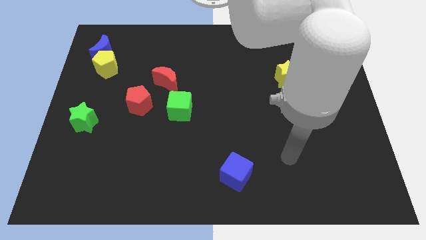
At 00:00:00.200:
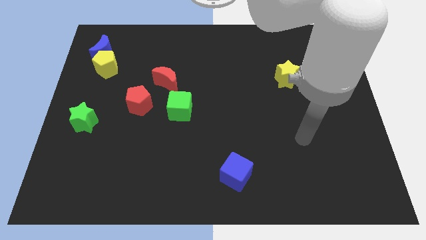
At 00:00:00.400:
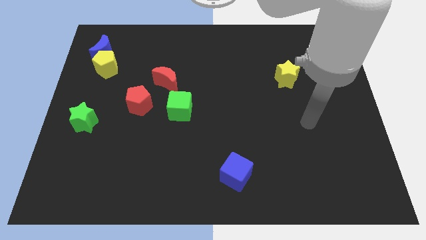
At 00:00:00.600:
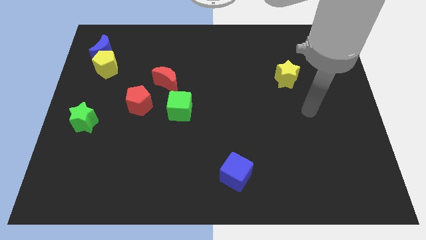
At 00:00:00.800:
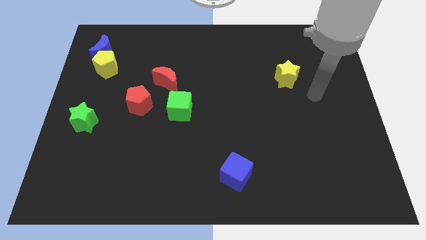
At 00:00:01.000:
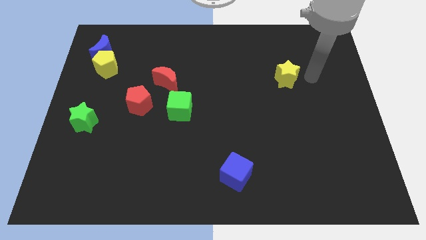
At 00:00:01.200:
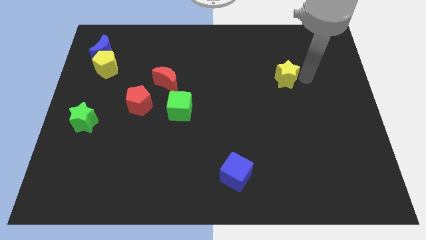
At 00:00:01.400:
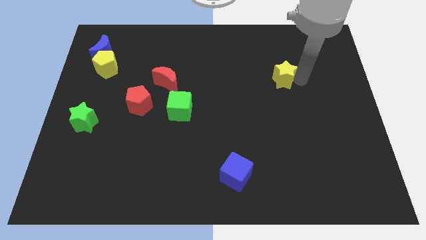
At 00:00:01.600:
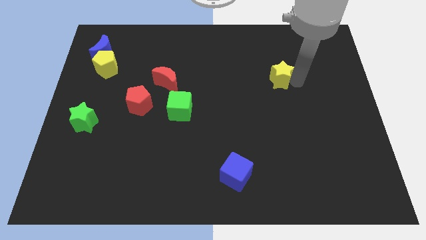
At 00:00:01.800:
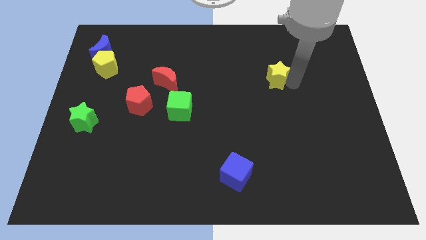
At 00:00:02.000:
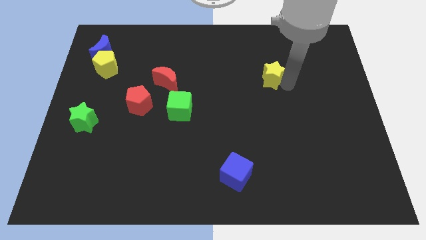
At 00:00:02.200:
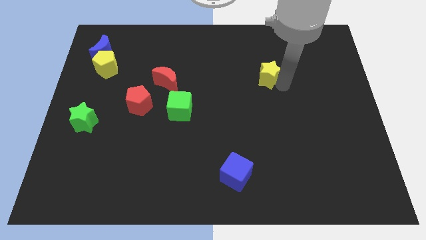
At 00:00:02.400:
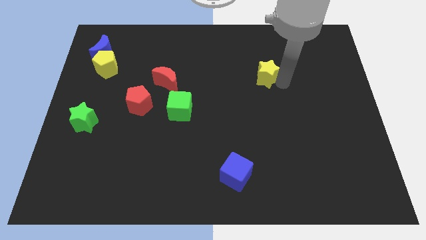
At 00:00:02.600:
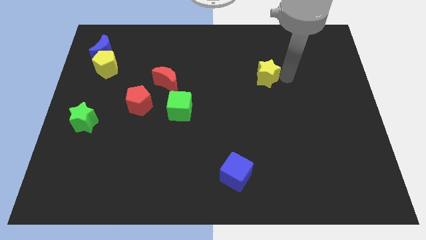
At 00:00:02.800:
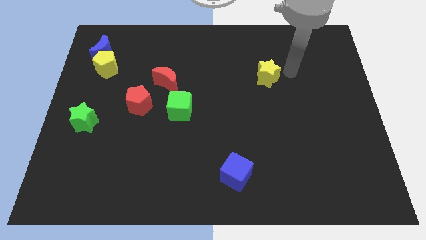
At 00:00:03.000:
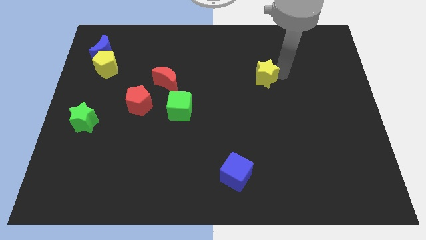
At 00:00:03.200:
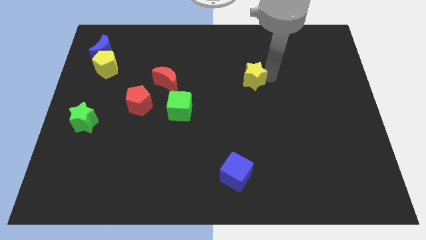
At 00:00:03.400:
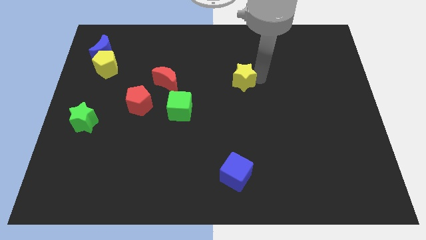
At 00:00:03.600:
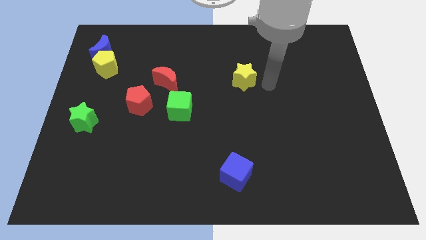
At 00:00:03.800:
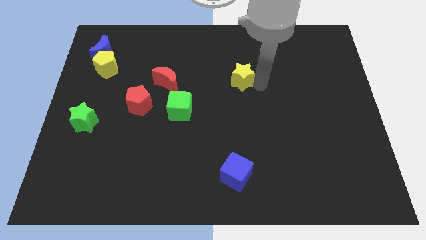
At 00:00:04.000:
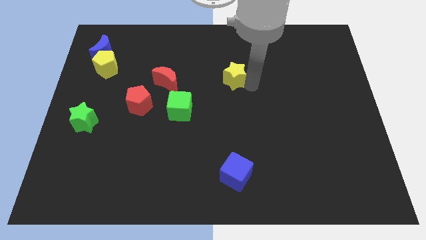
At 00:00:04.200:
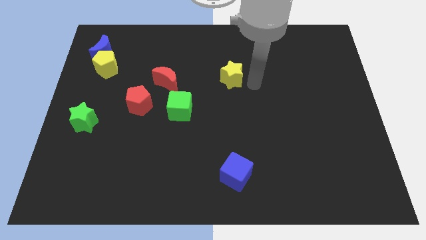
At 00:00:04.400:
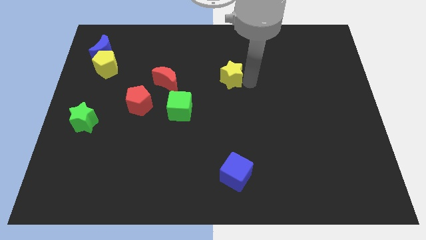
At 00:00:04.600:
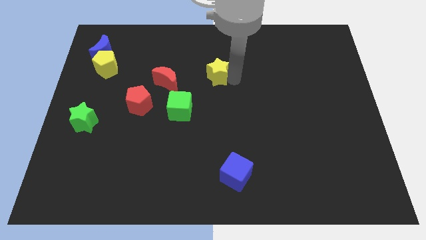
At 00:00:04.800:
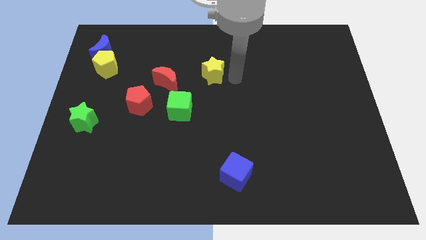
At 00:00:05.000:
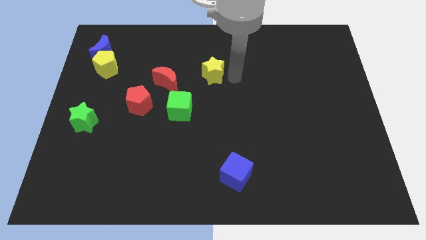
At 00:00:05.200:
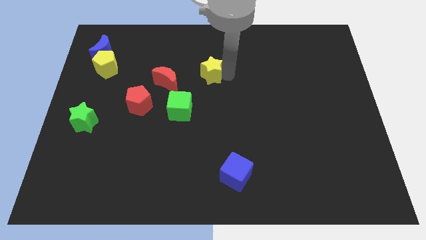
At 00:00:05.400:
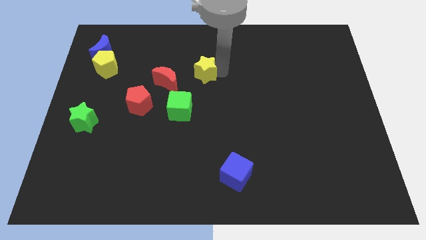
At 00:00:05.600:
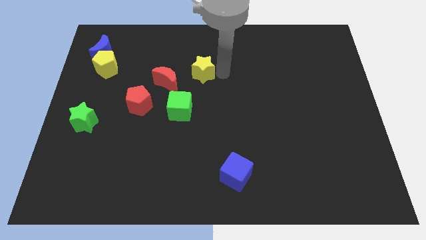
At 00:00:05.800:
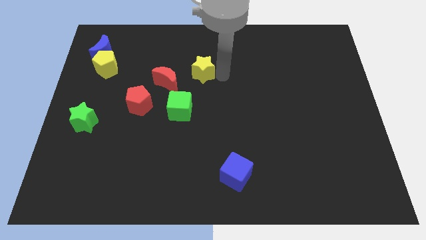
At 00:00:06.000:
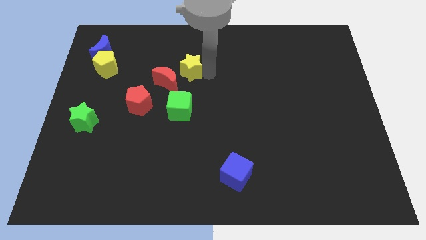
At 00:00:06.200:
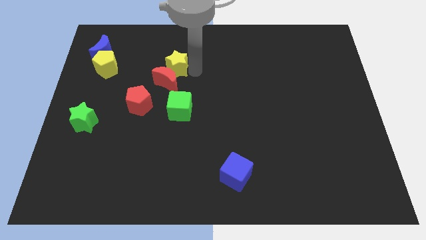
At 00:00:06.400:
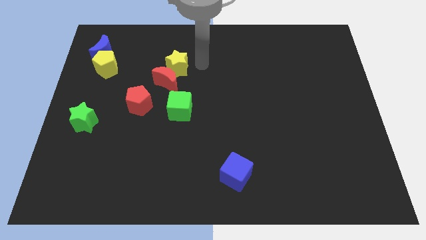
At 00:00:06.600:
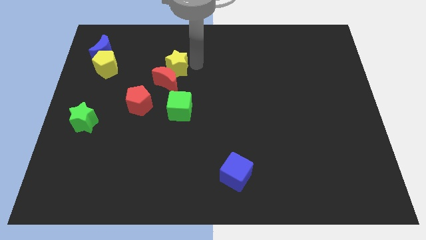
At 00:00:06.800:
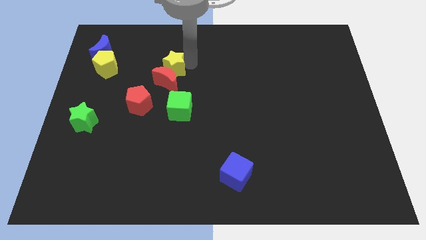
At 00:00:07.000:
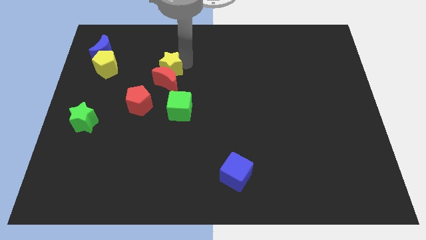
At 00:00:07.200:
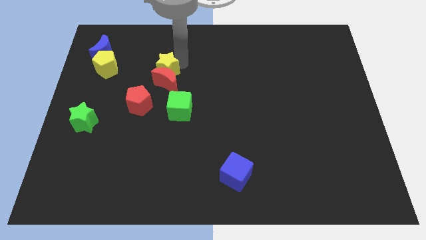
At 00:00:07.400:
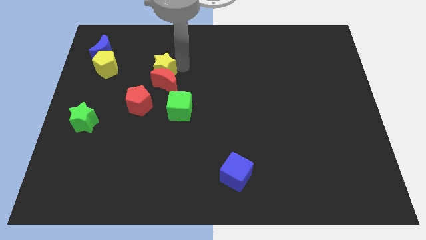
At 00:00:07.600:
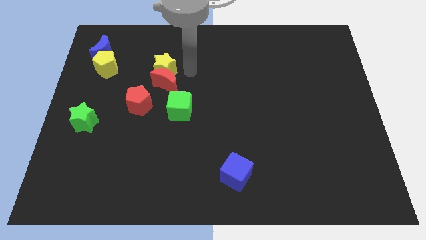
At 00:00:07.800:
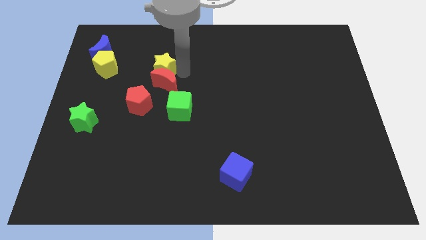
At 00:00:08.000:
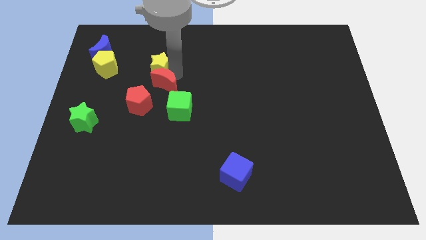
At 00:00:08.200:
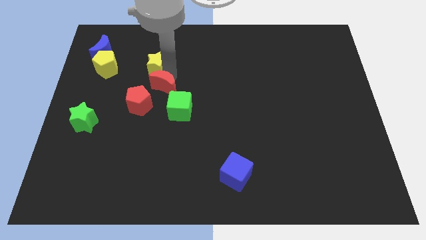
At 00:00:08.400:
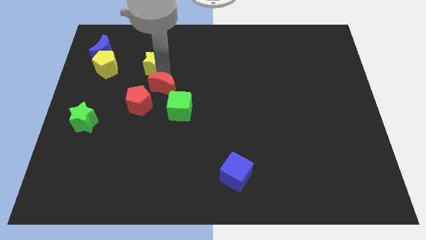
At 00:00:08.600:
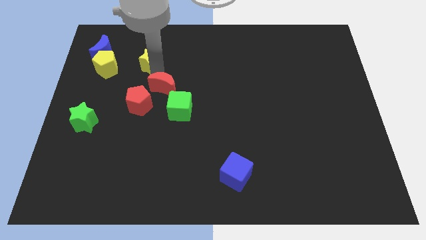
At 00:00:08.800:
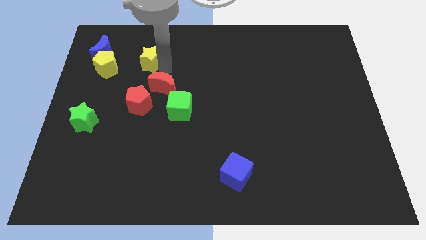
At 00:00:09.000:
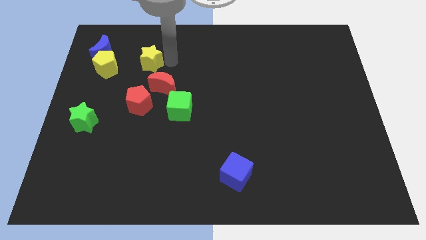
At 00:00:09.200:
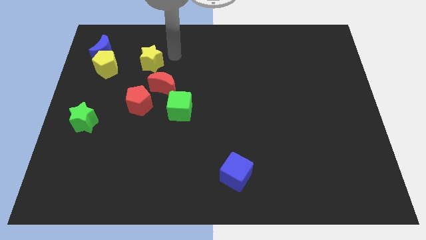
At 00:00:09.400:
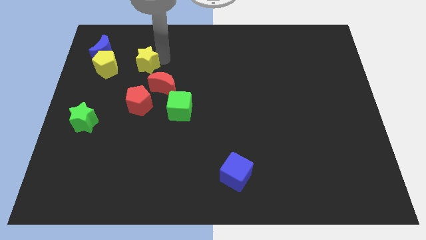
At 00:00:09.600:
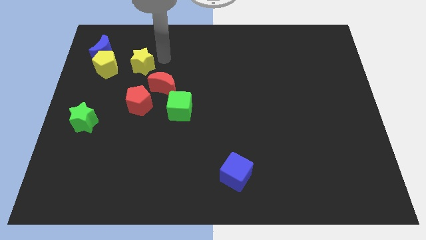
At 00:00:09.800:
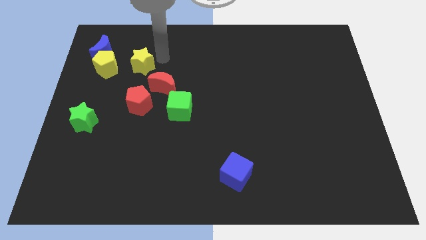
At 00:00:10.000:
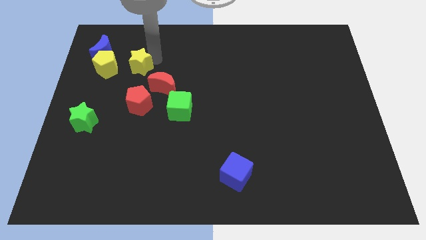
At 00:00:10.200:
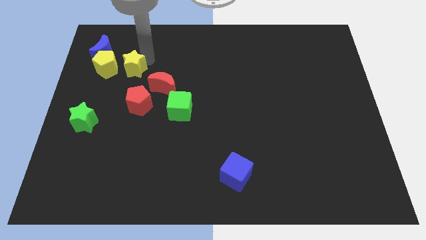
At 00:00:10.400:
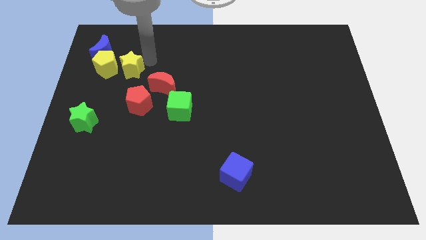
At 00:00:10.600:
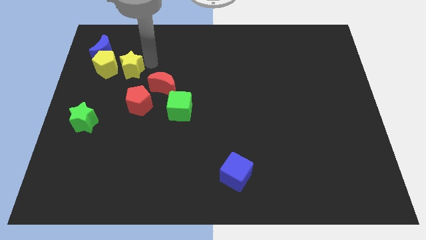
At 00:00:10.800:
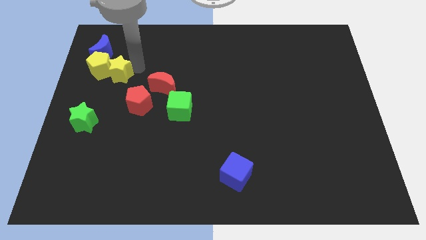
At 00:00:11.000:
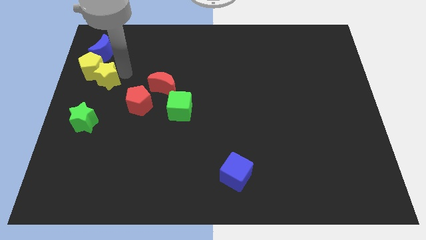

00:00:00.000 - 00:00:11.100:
put the yellow star to the left side

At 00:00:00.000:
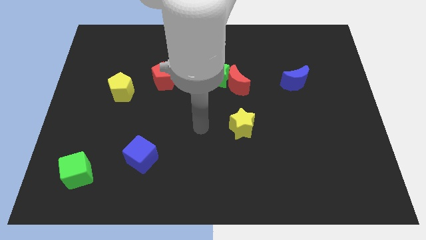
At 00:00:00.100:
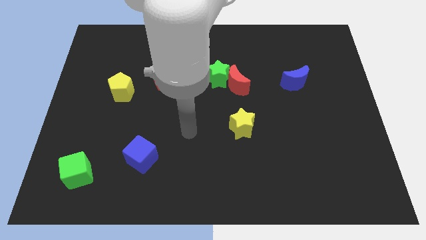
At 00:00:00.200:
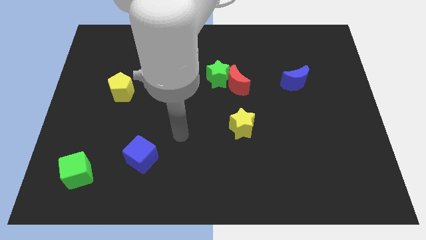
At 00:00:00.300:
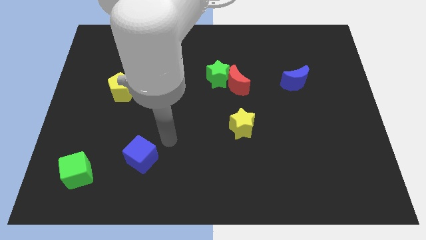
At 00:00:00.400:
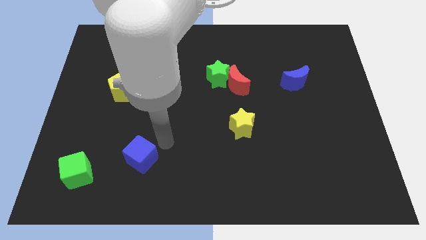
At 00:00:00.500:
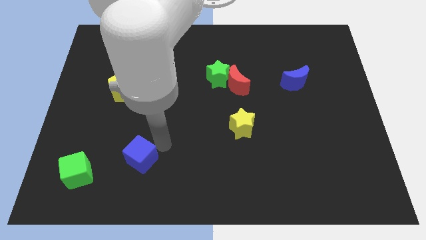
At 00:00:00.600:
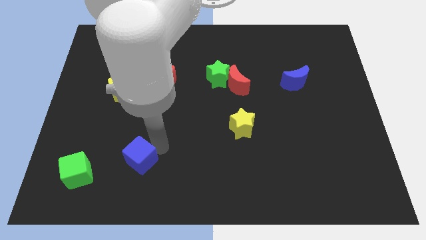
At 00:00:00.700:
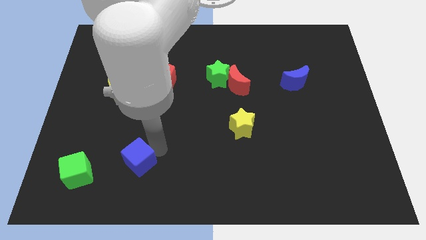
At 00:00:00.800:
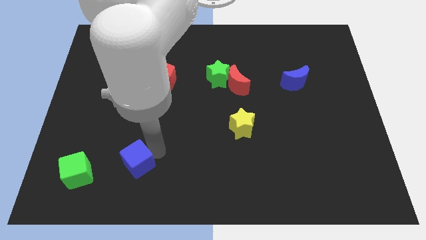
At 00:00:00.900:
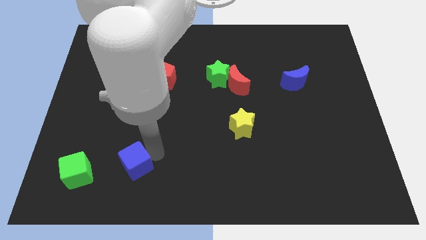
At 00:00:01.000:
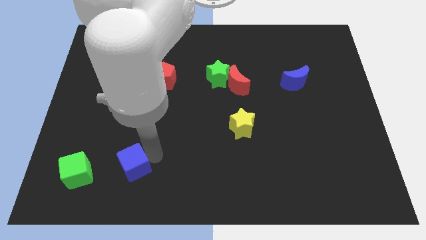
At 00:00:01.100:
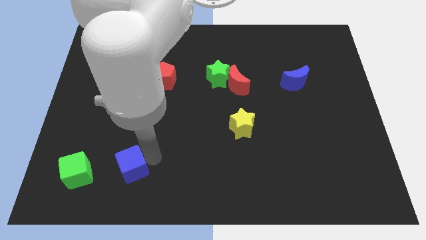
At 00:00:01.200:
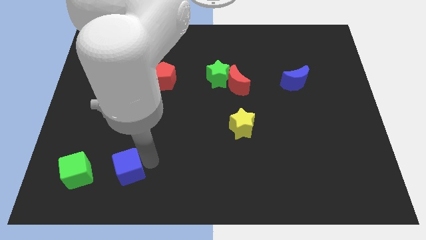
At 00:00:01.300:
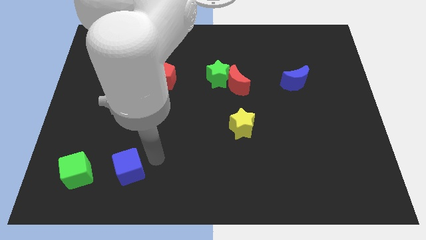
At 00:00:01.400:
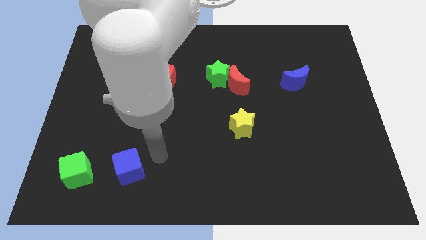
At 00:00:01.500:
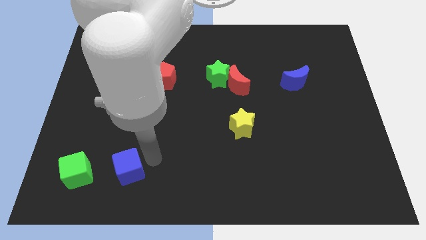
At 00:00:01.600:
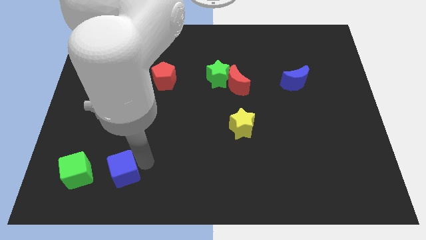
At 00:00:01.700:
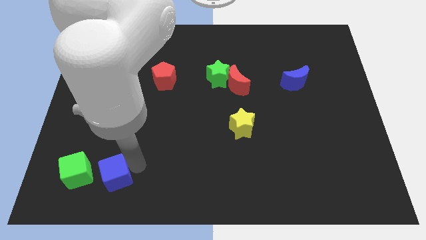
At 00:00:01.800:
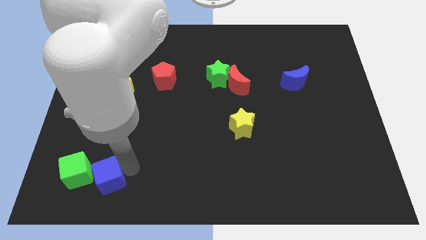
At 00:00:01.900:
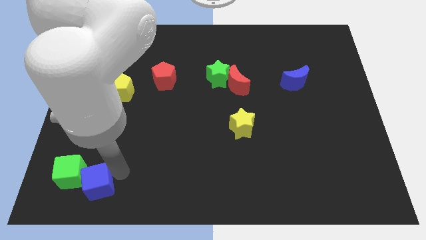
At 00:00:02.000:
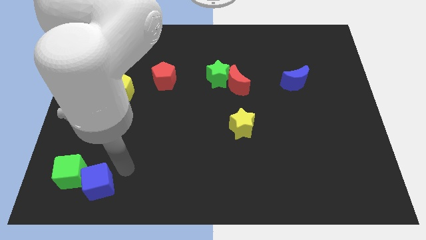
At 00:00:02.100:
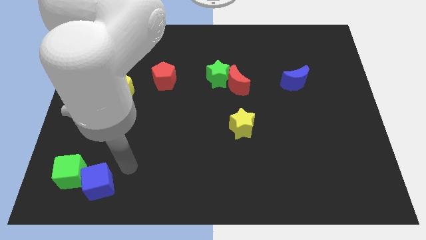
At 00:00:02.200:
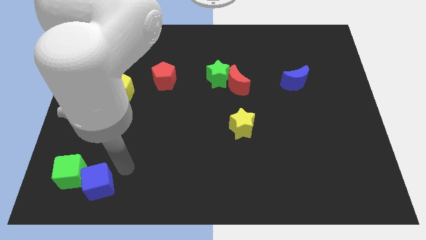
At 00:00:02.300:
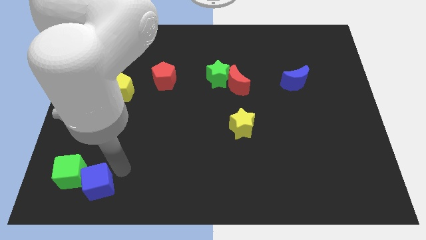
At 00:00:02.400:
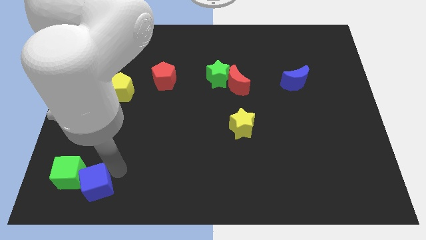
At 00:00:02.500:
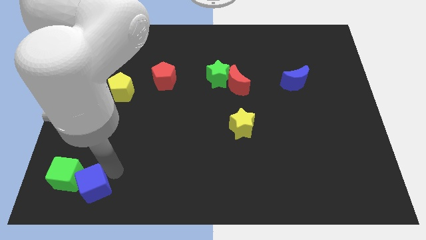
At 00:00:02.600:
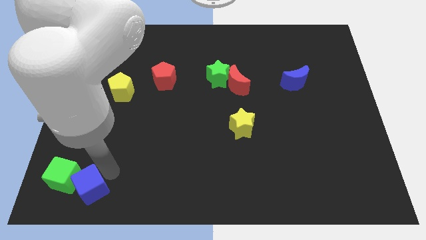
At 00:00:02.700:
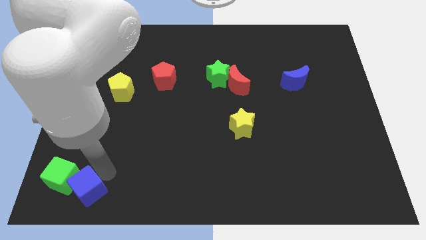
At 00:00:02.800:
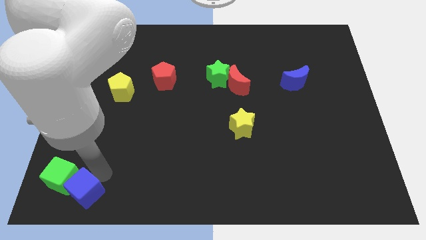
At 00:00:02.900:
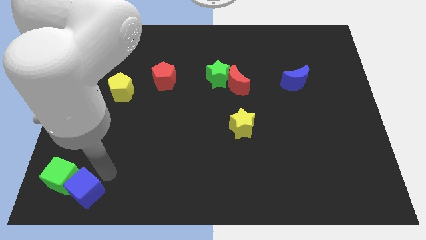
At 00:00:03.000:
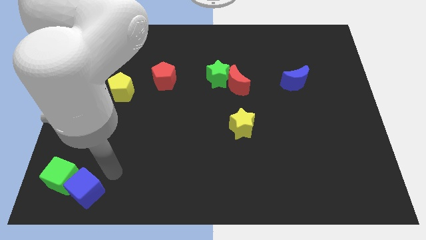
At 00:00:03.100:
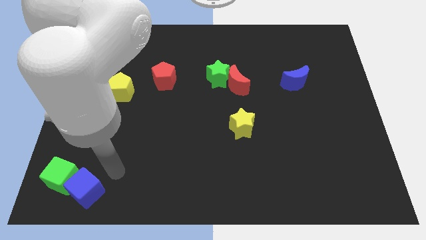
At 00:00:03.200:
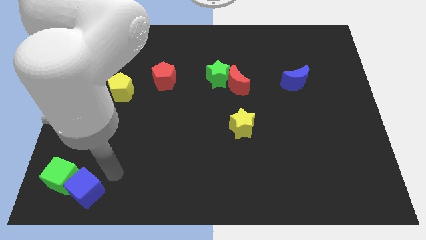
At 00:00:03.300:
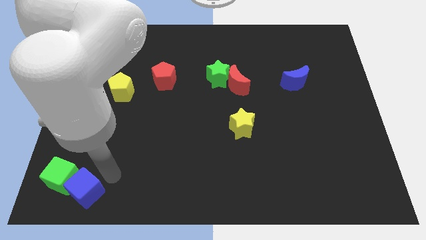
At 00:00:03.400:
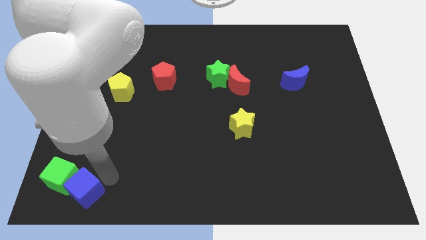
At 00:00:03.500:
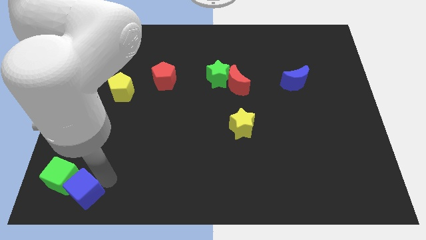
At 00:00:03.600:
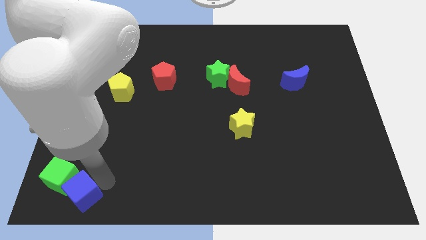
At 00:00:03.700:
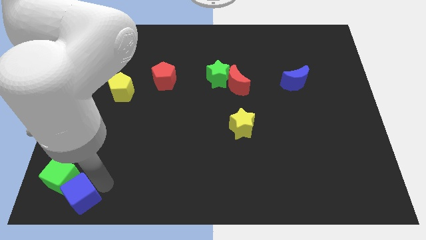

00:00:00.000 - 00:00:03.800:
move the blue cube to the lower left corner
